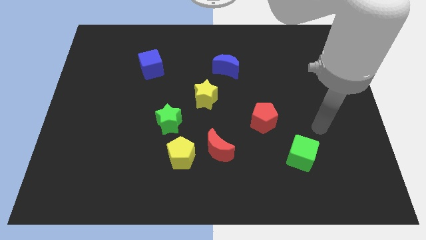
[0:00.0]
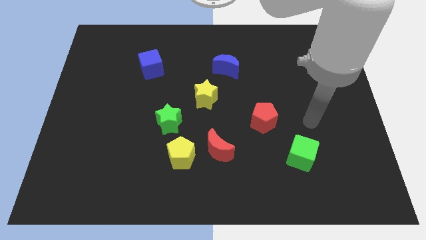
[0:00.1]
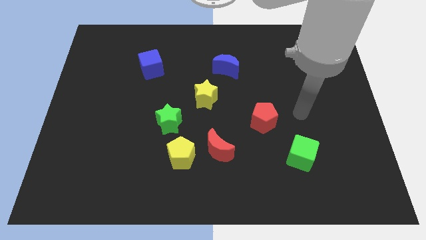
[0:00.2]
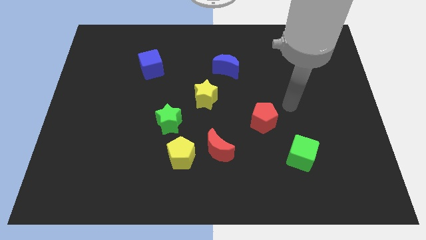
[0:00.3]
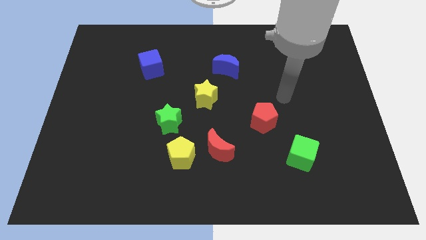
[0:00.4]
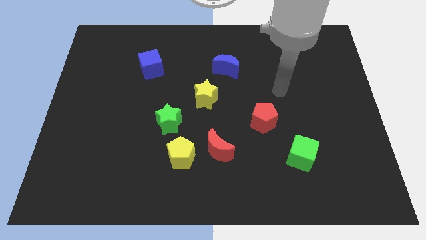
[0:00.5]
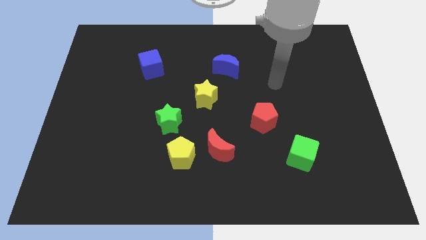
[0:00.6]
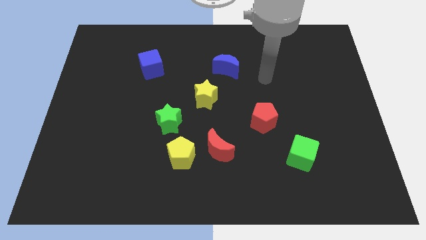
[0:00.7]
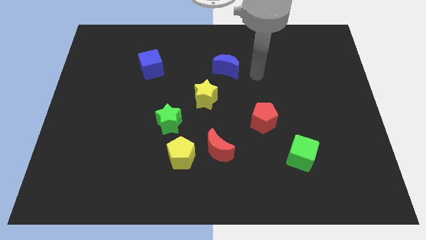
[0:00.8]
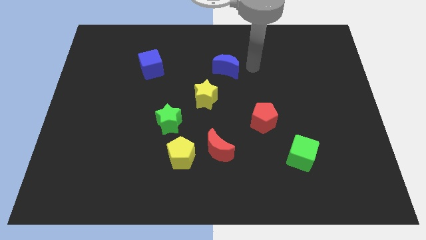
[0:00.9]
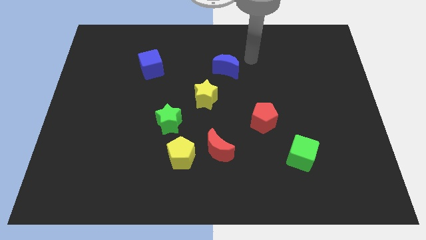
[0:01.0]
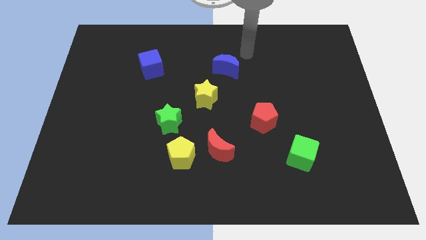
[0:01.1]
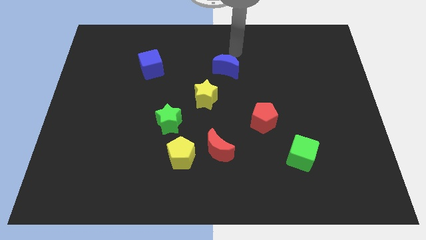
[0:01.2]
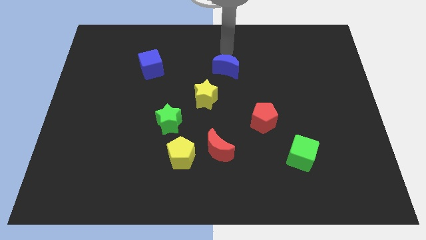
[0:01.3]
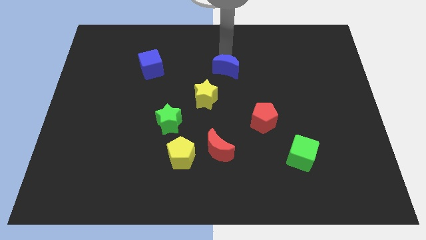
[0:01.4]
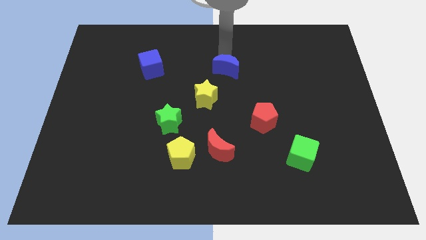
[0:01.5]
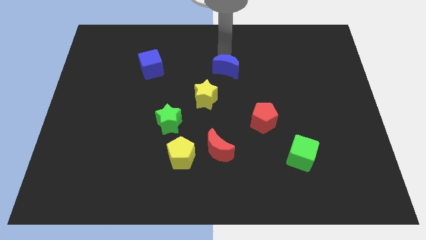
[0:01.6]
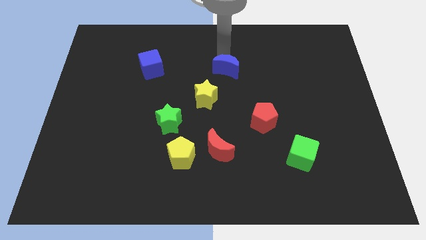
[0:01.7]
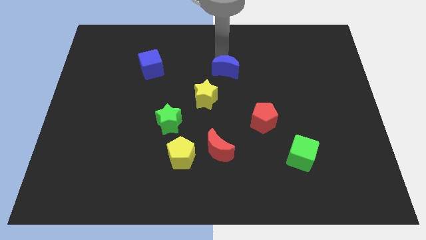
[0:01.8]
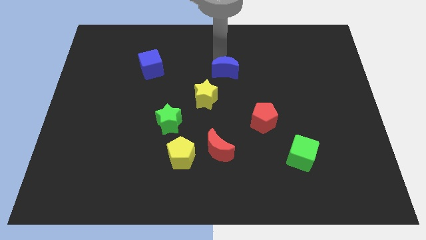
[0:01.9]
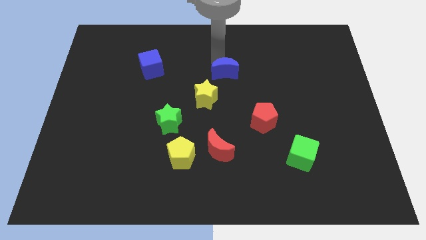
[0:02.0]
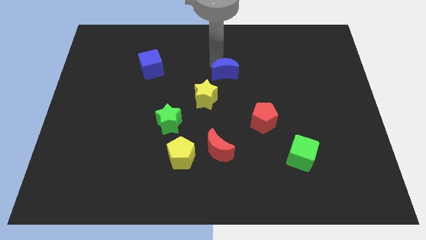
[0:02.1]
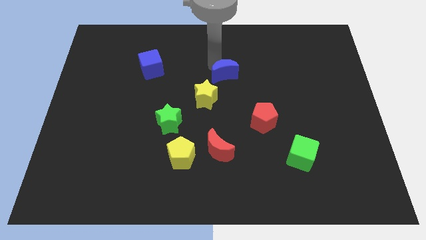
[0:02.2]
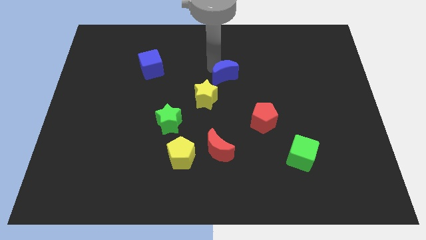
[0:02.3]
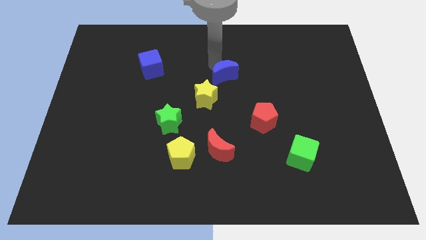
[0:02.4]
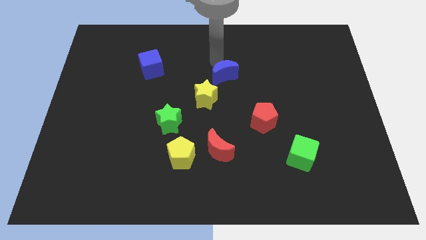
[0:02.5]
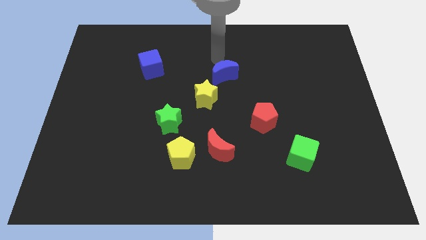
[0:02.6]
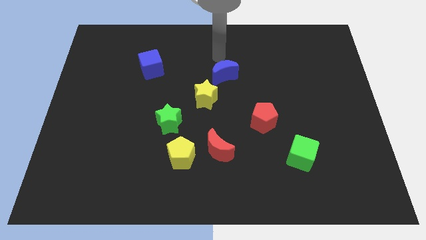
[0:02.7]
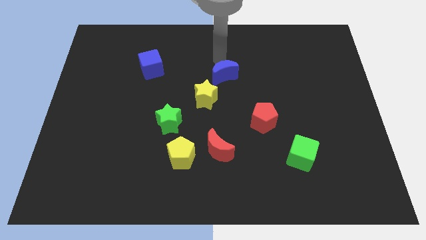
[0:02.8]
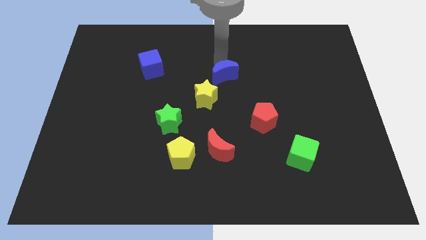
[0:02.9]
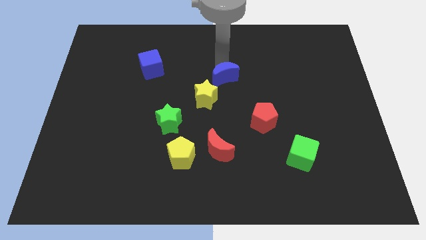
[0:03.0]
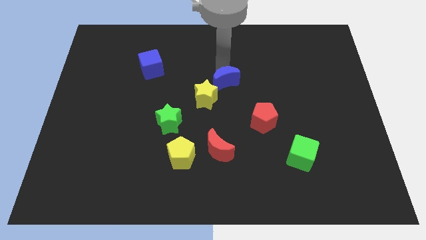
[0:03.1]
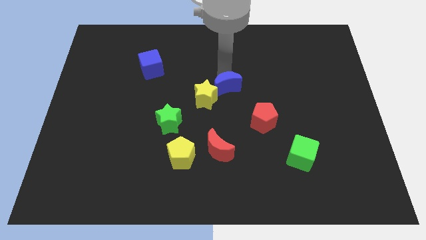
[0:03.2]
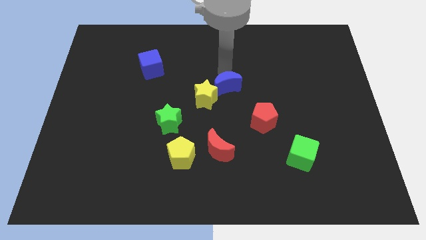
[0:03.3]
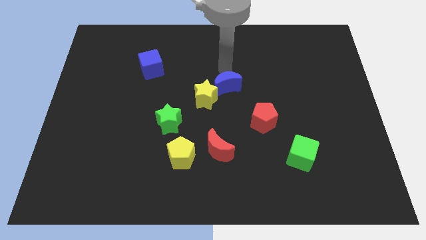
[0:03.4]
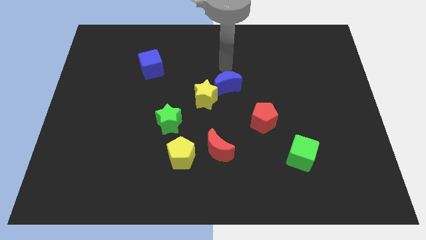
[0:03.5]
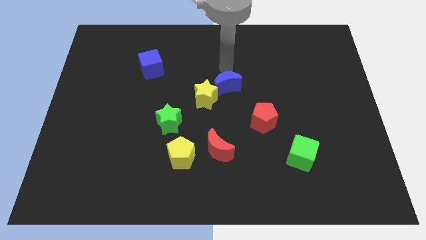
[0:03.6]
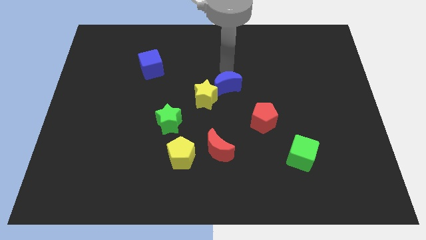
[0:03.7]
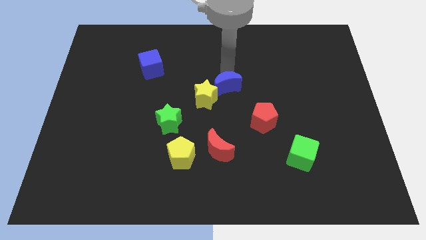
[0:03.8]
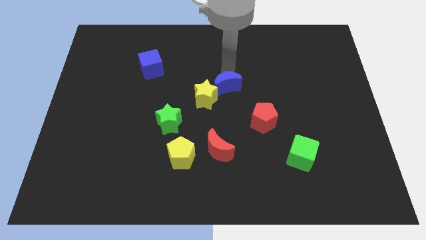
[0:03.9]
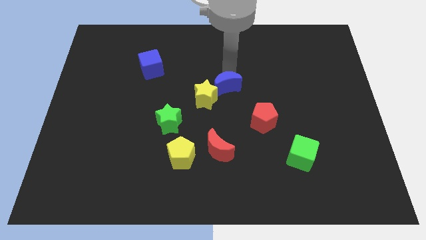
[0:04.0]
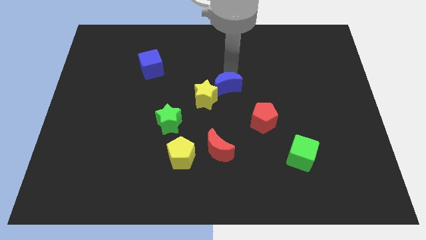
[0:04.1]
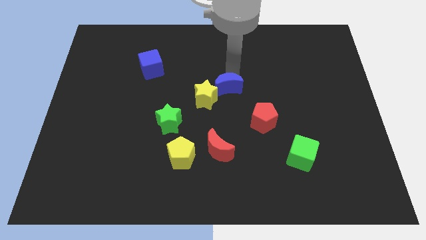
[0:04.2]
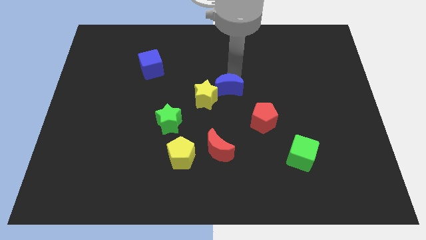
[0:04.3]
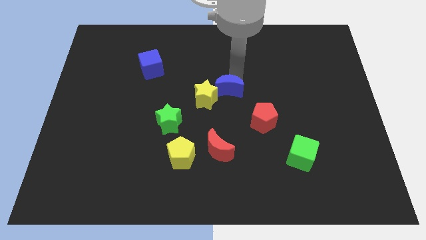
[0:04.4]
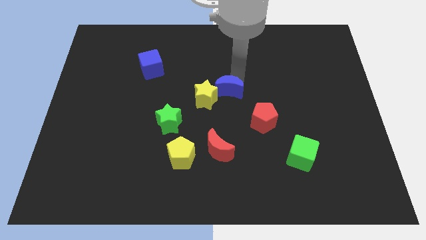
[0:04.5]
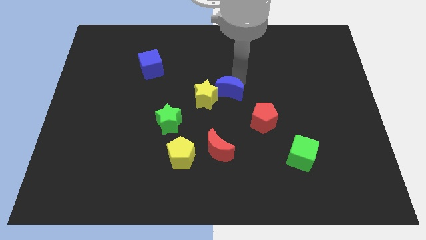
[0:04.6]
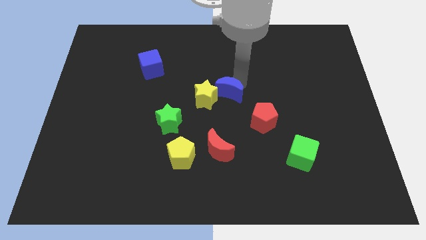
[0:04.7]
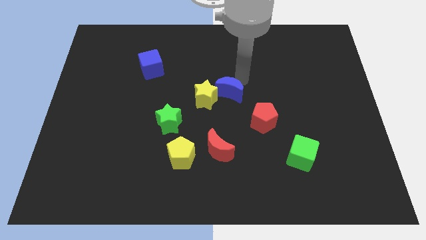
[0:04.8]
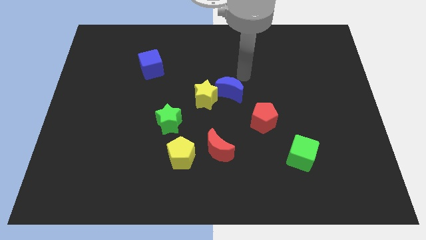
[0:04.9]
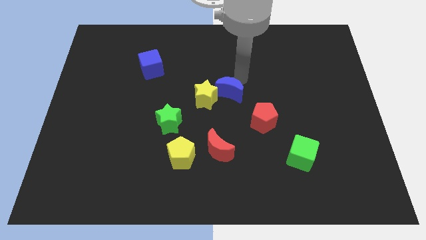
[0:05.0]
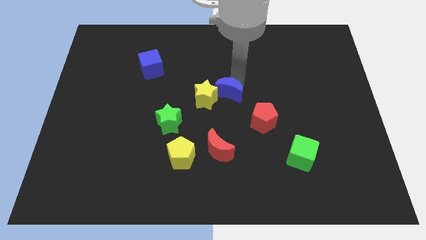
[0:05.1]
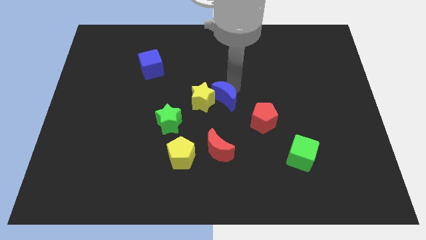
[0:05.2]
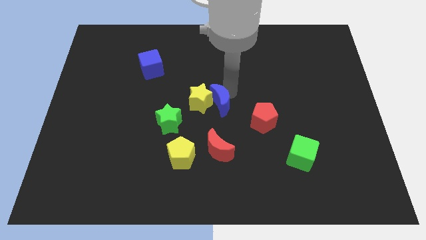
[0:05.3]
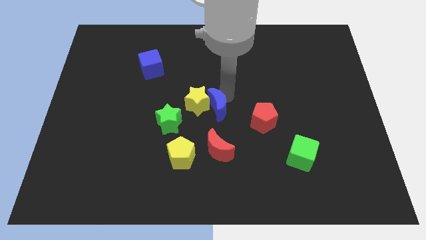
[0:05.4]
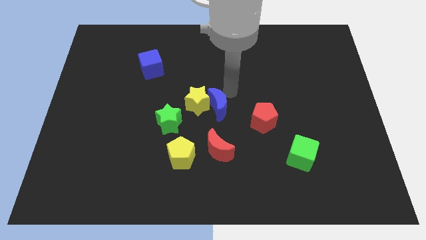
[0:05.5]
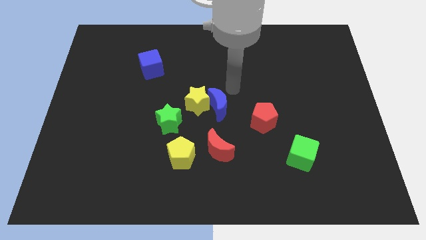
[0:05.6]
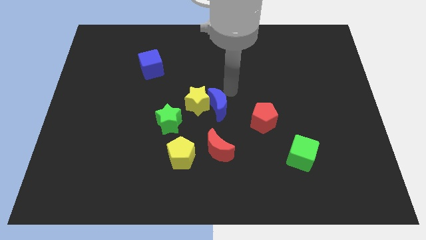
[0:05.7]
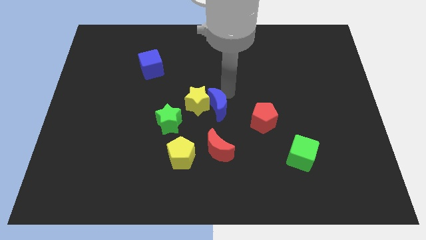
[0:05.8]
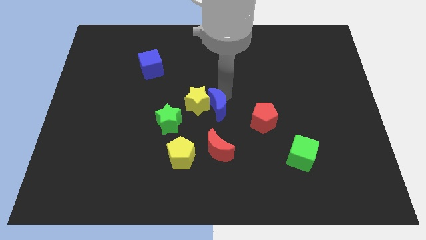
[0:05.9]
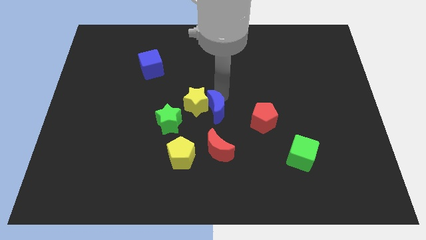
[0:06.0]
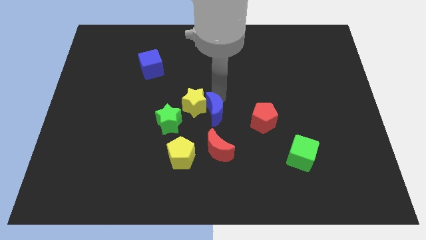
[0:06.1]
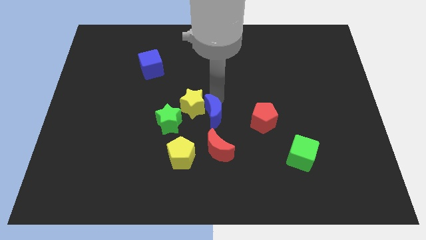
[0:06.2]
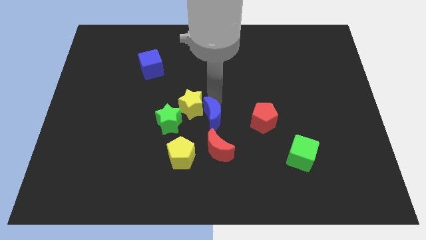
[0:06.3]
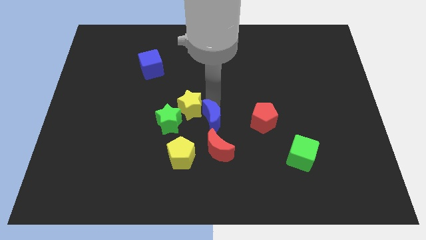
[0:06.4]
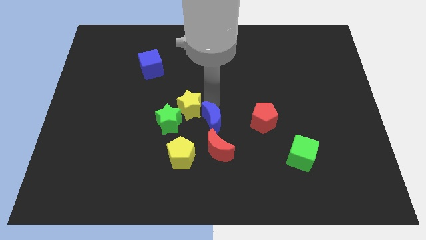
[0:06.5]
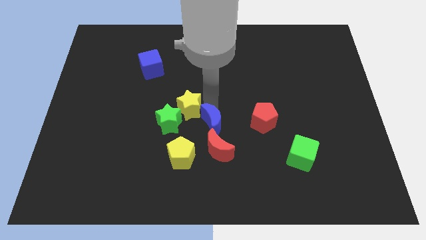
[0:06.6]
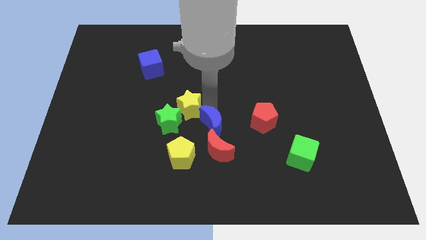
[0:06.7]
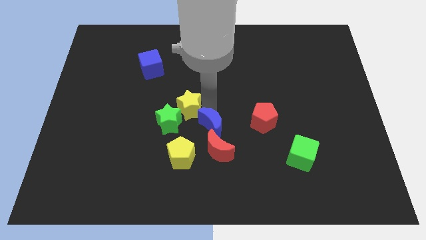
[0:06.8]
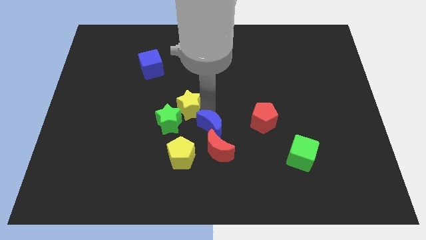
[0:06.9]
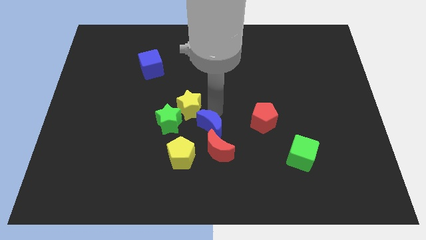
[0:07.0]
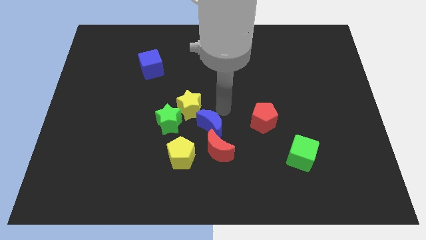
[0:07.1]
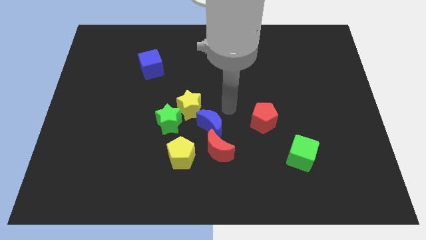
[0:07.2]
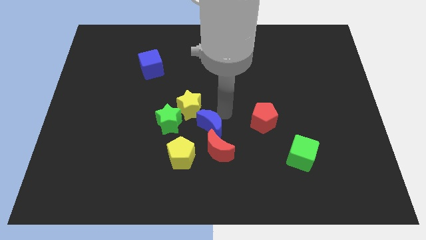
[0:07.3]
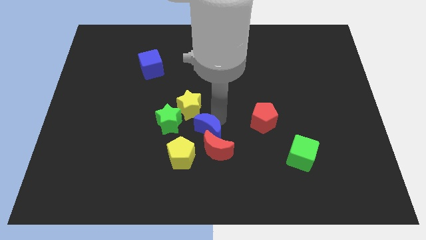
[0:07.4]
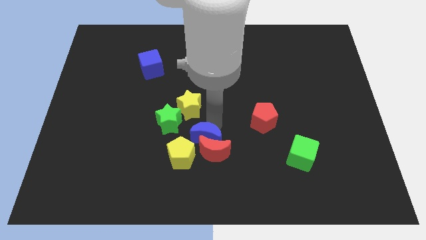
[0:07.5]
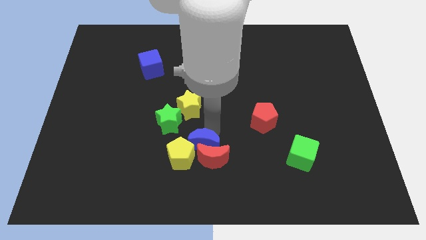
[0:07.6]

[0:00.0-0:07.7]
push the blue moon to the yellow pentagon
